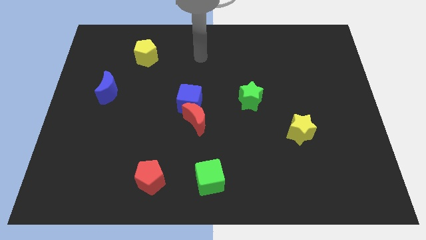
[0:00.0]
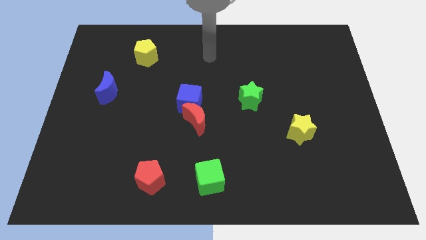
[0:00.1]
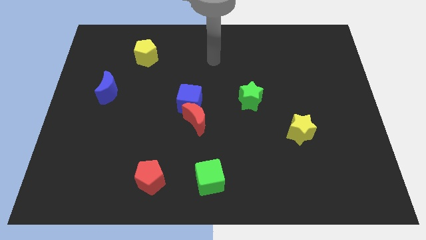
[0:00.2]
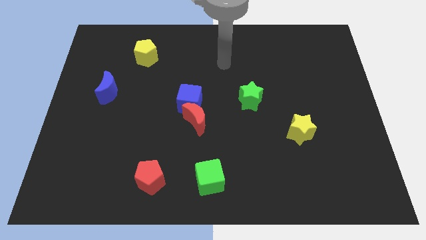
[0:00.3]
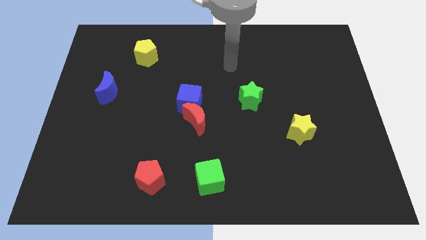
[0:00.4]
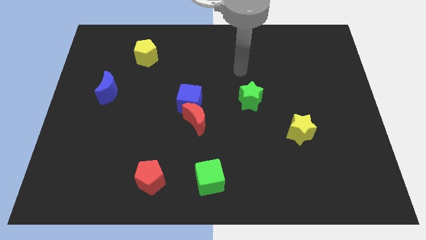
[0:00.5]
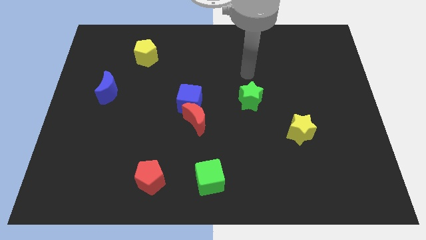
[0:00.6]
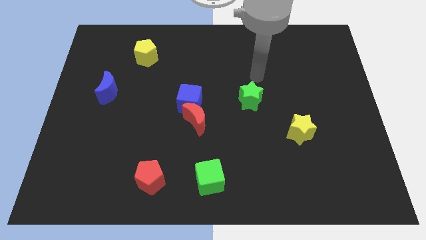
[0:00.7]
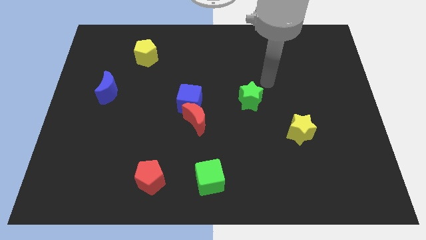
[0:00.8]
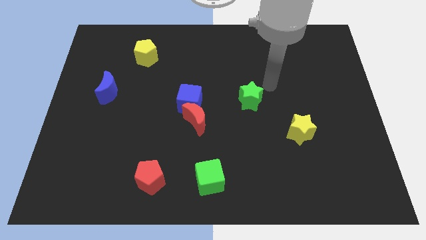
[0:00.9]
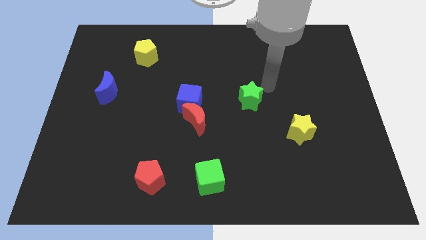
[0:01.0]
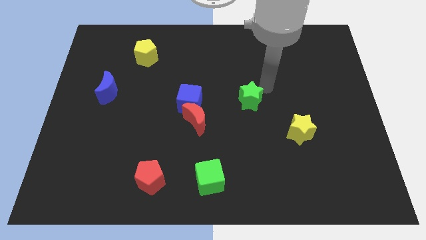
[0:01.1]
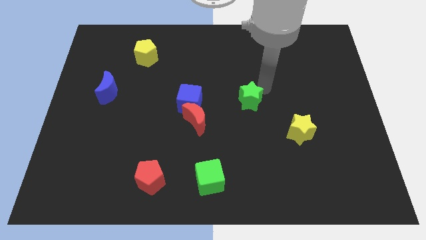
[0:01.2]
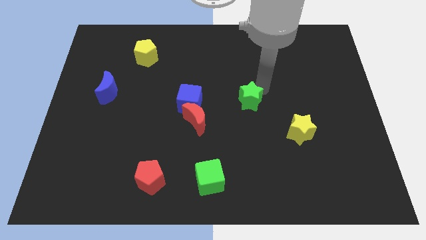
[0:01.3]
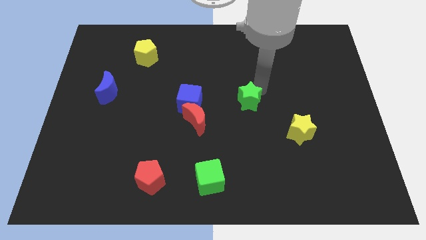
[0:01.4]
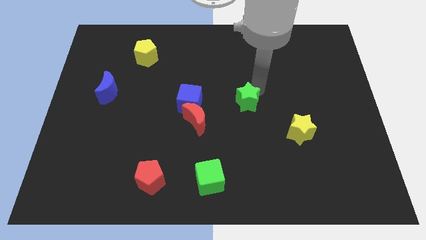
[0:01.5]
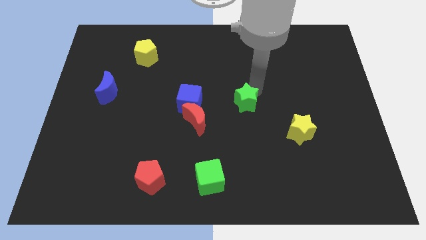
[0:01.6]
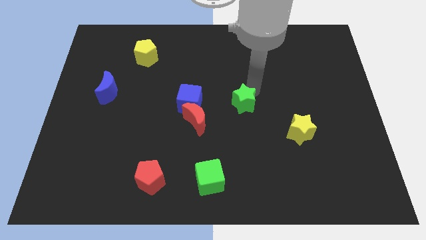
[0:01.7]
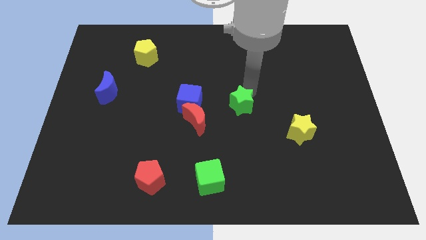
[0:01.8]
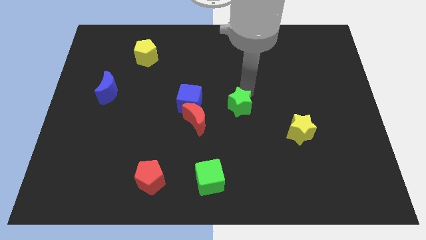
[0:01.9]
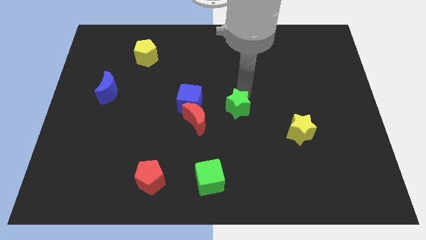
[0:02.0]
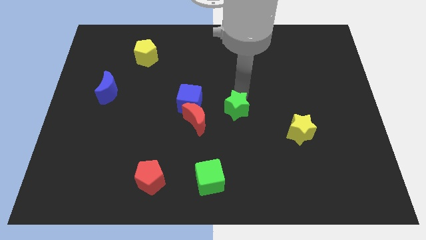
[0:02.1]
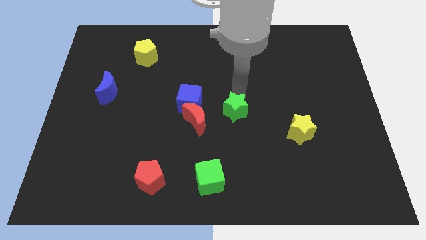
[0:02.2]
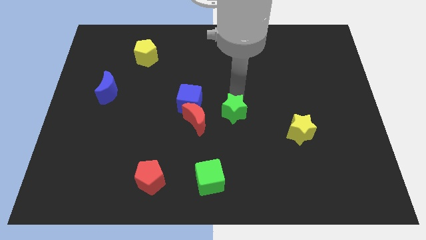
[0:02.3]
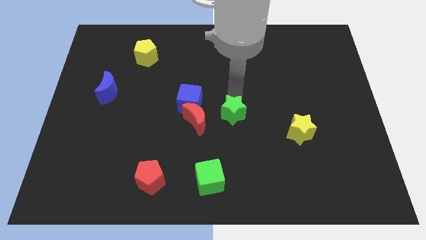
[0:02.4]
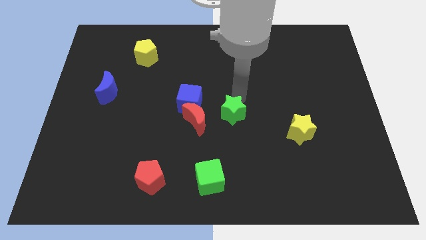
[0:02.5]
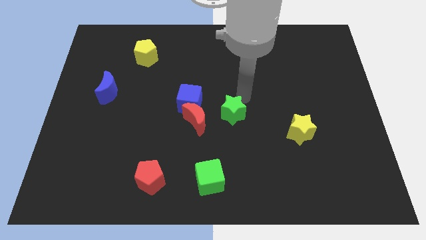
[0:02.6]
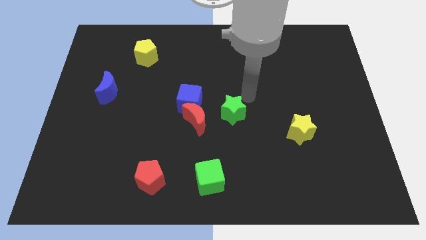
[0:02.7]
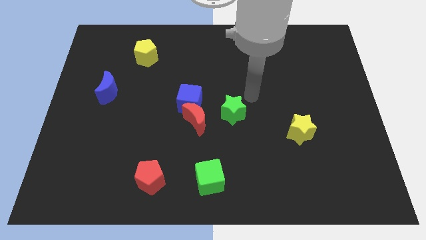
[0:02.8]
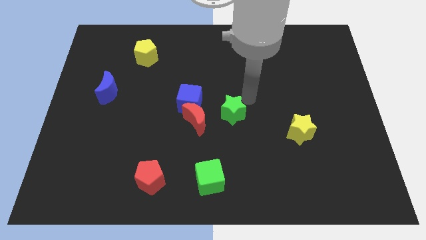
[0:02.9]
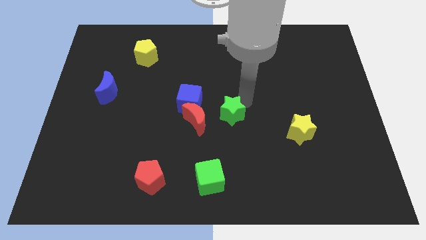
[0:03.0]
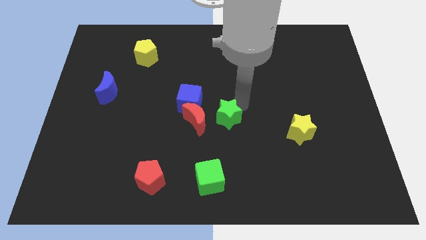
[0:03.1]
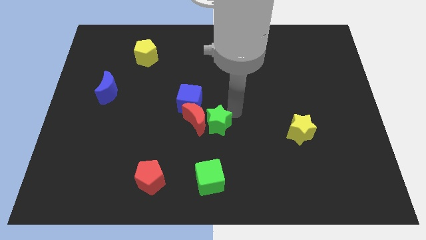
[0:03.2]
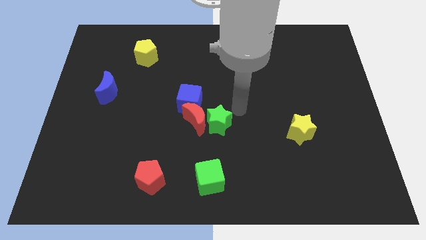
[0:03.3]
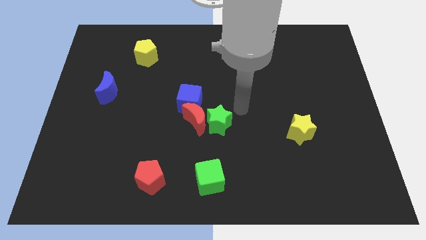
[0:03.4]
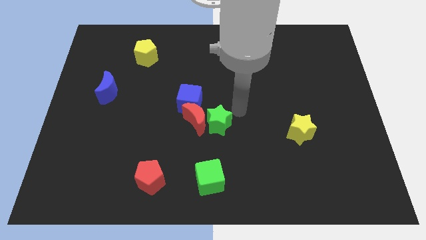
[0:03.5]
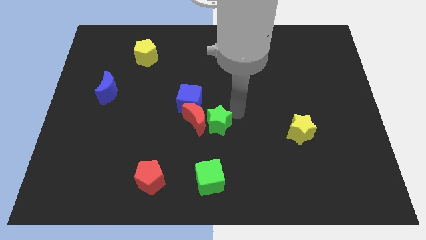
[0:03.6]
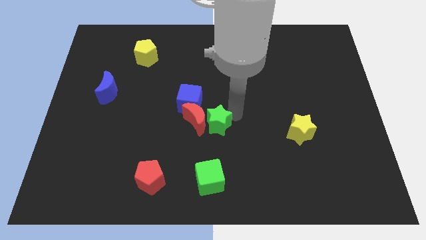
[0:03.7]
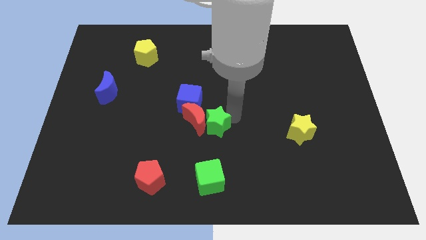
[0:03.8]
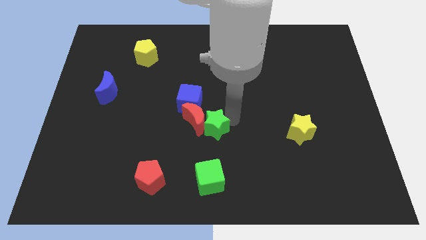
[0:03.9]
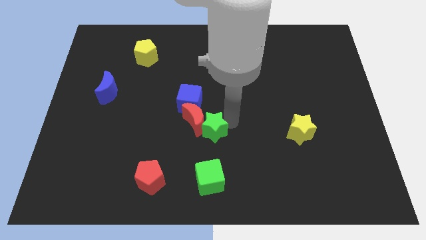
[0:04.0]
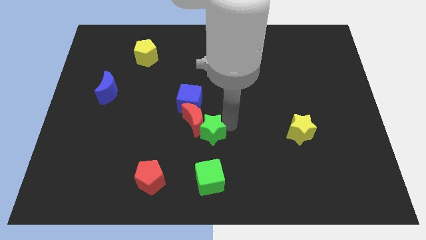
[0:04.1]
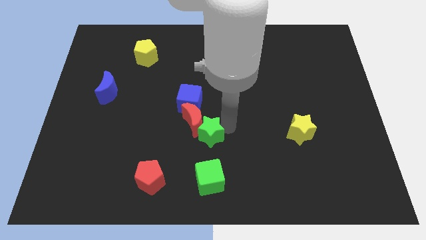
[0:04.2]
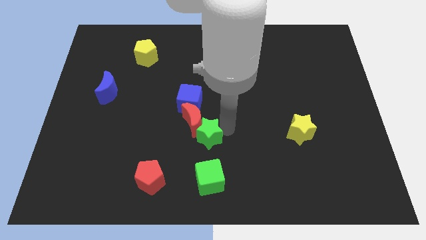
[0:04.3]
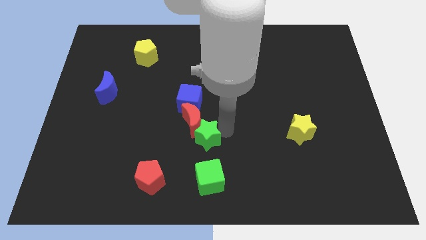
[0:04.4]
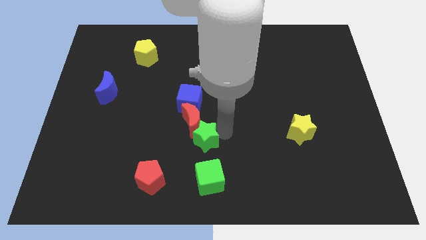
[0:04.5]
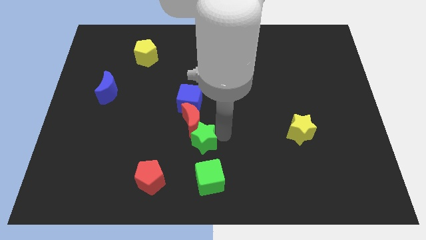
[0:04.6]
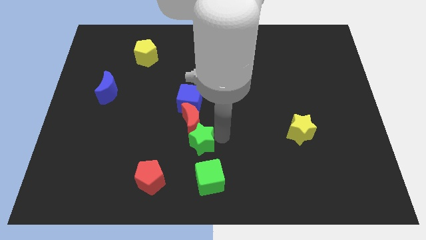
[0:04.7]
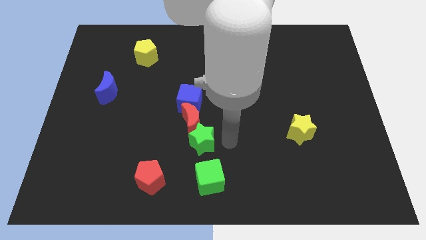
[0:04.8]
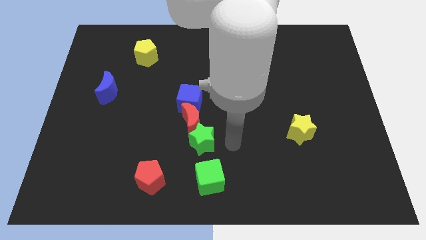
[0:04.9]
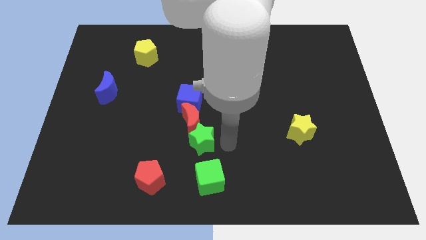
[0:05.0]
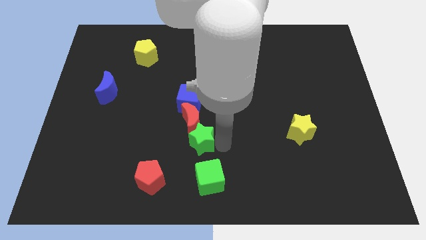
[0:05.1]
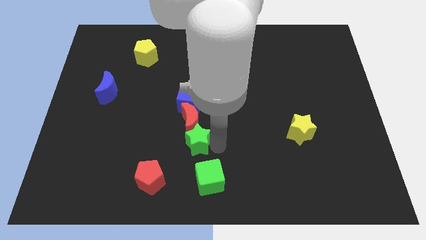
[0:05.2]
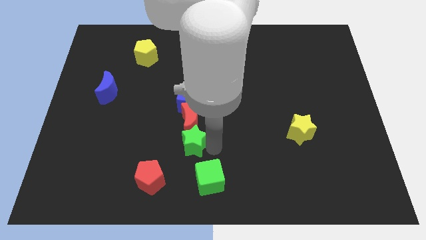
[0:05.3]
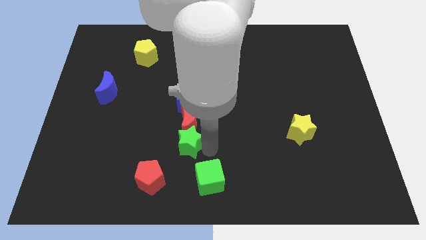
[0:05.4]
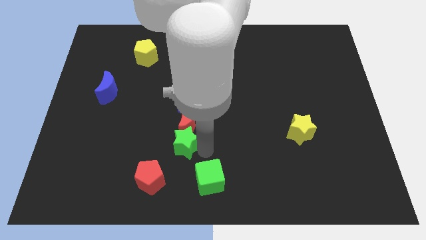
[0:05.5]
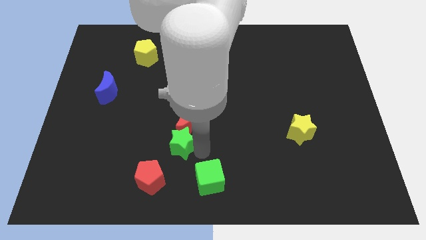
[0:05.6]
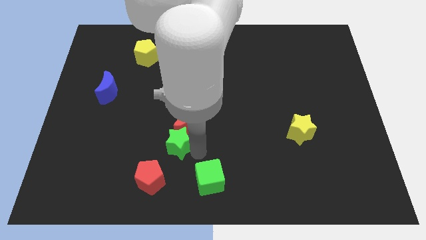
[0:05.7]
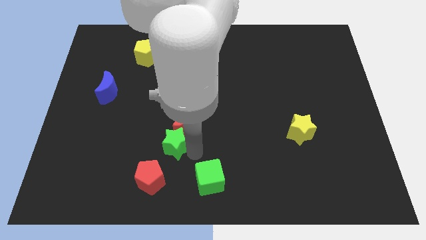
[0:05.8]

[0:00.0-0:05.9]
push the green star above the red pentagon
